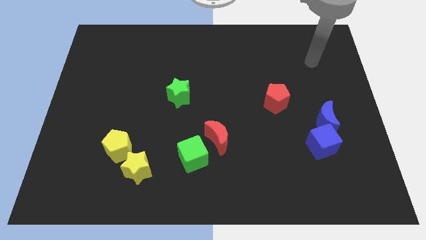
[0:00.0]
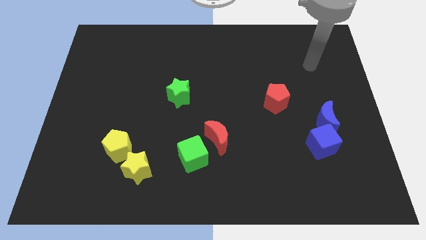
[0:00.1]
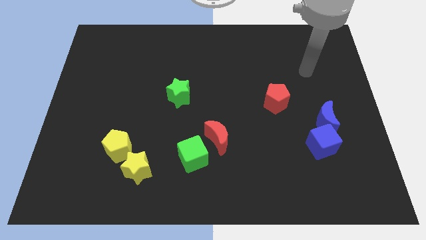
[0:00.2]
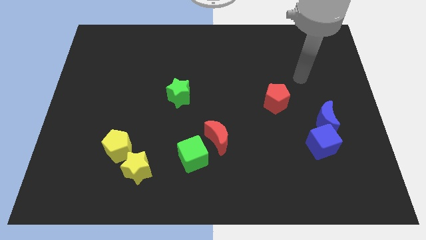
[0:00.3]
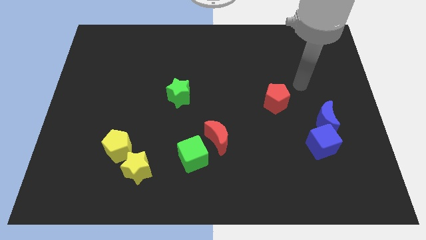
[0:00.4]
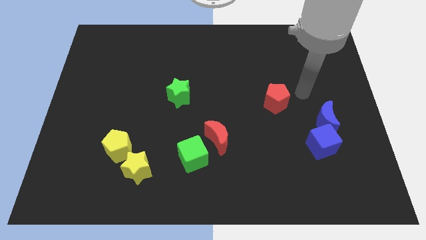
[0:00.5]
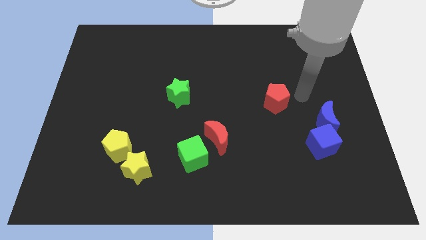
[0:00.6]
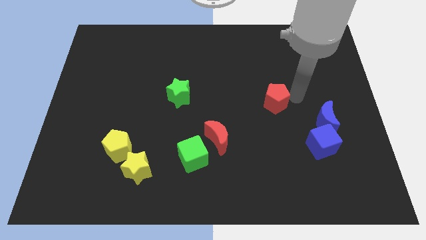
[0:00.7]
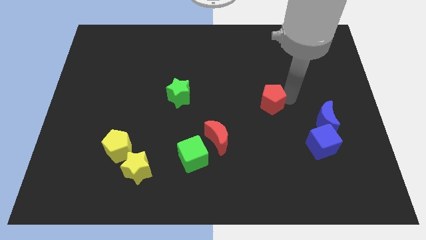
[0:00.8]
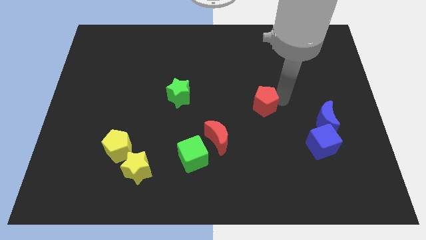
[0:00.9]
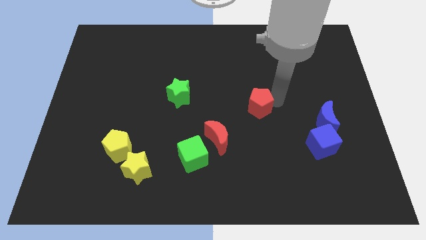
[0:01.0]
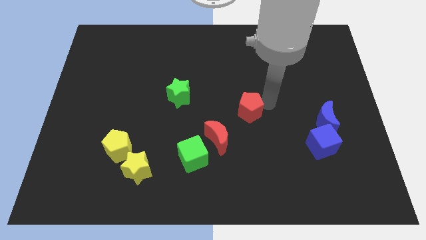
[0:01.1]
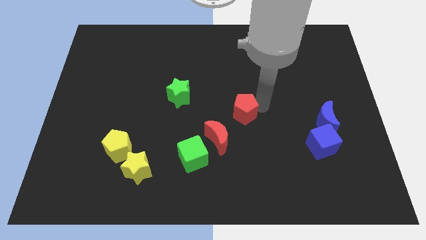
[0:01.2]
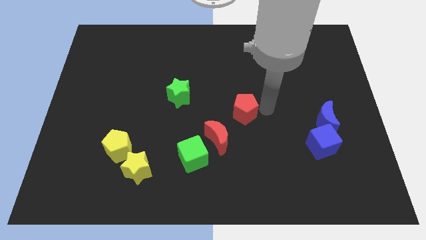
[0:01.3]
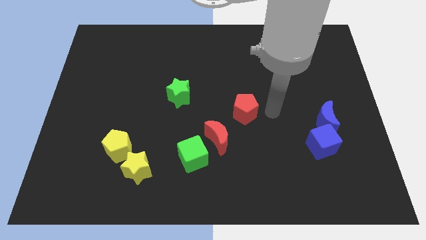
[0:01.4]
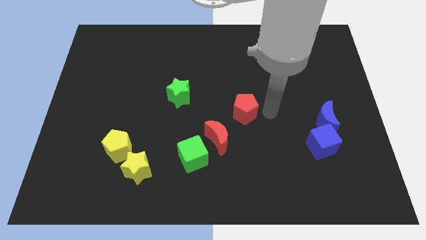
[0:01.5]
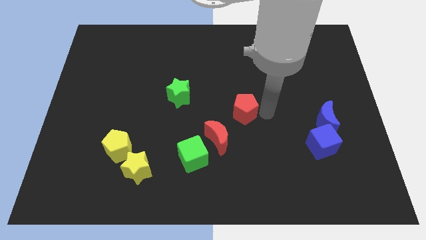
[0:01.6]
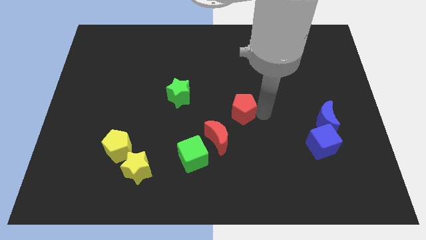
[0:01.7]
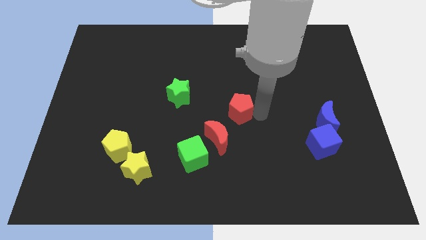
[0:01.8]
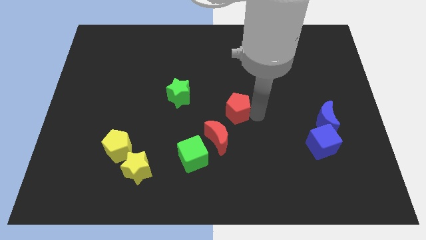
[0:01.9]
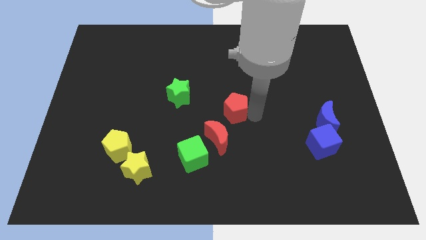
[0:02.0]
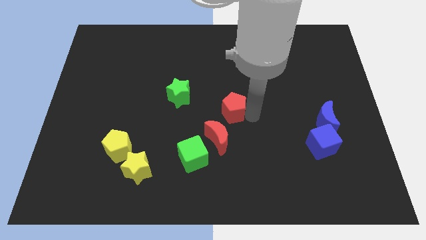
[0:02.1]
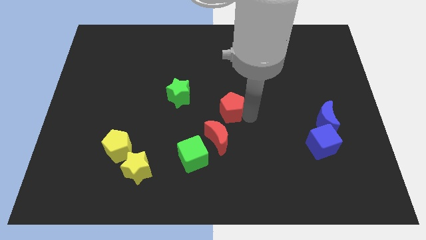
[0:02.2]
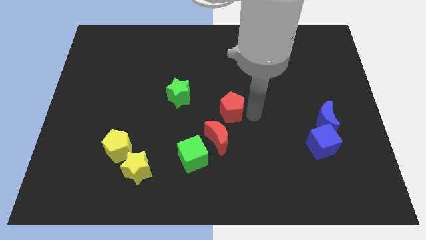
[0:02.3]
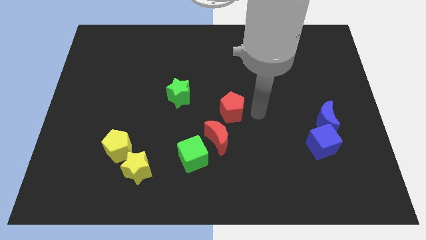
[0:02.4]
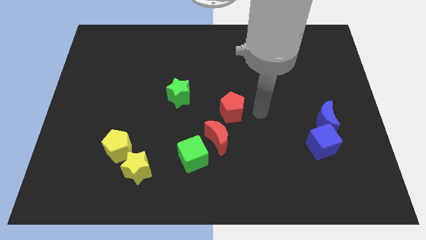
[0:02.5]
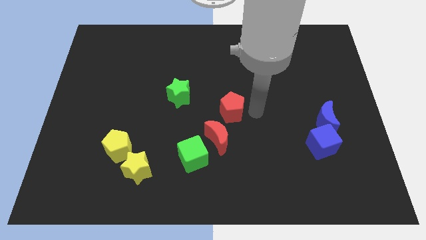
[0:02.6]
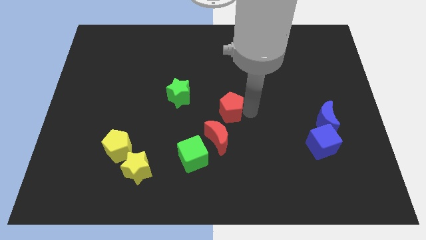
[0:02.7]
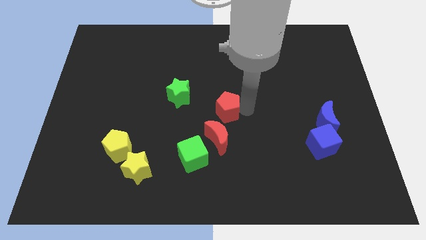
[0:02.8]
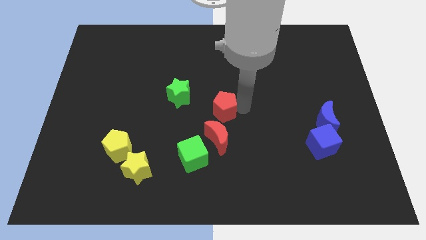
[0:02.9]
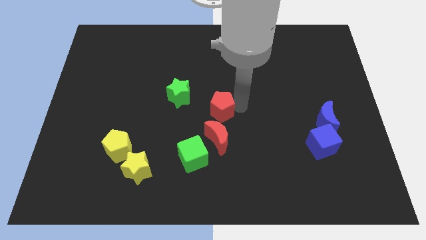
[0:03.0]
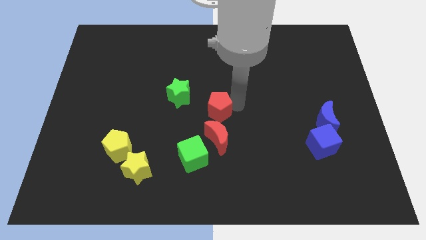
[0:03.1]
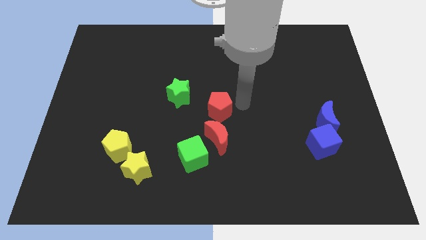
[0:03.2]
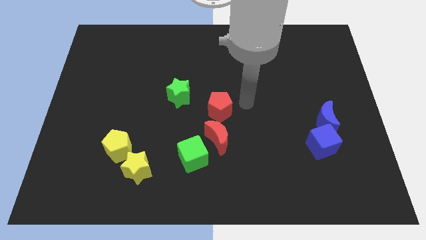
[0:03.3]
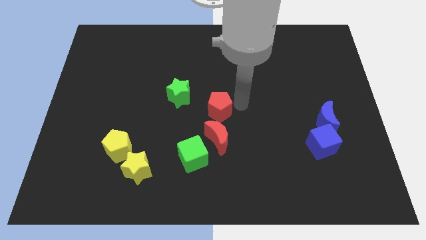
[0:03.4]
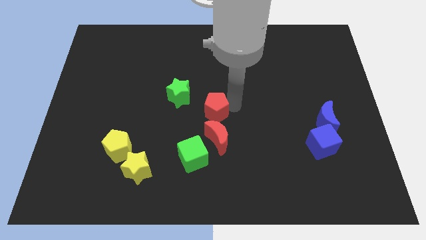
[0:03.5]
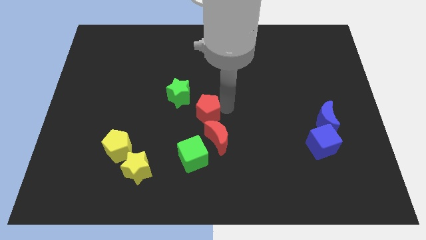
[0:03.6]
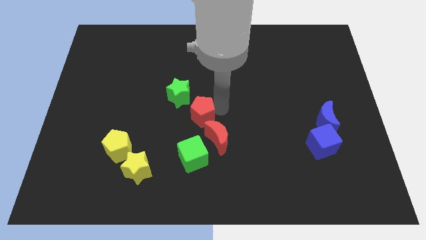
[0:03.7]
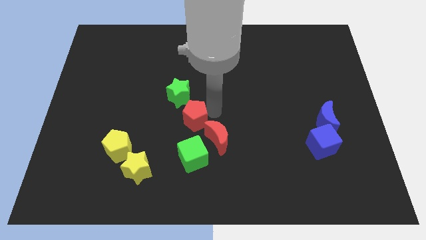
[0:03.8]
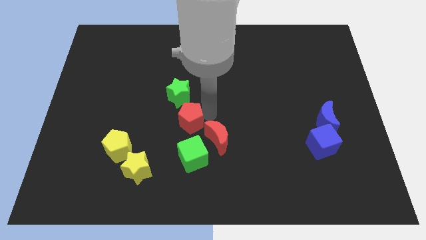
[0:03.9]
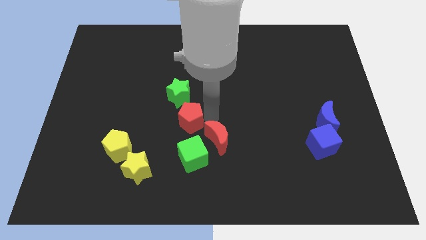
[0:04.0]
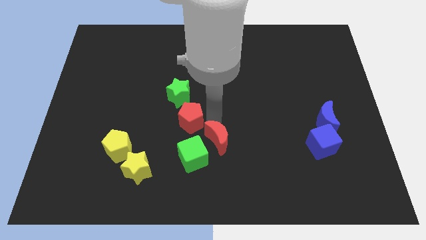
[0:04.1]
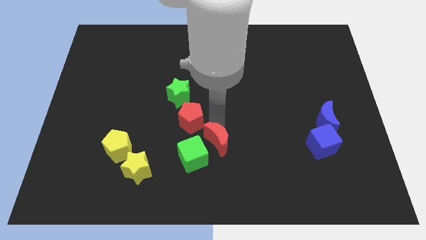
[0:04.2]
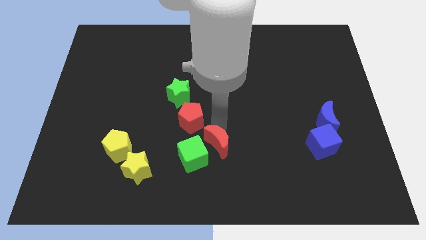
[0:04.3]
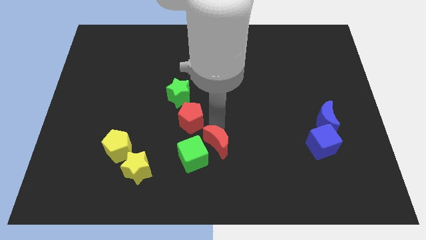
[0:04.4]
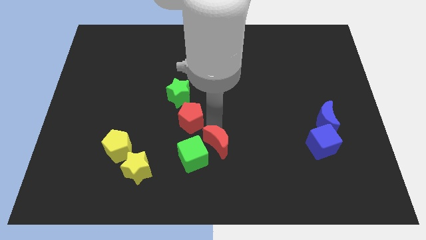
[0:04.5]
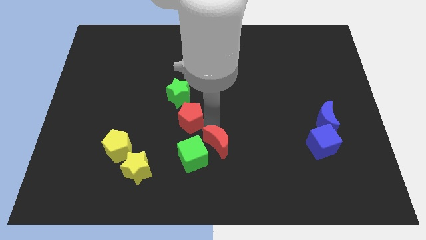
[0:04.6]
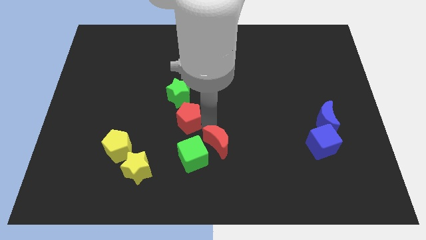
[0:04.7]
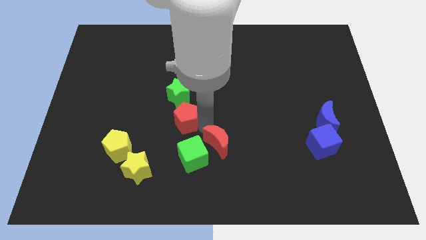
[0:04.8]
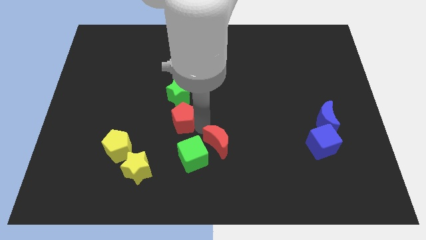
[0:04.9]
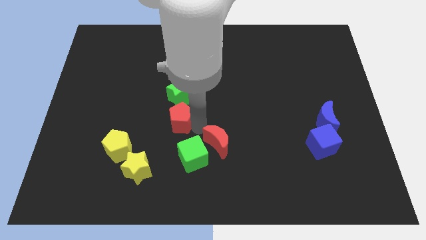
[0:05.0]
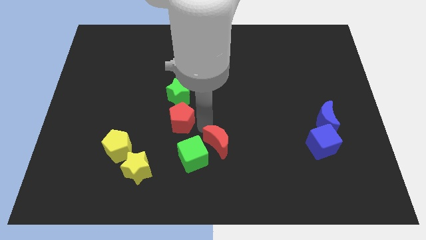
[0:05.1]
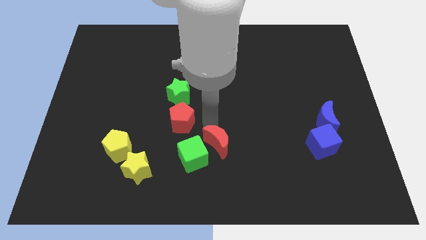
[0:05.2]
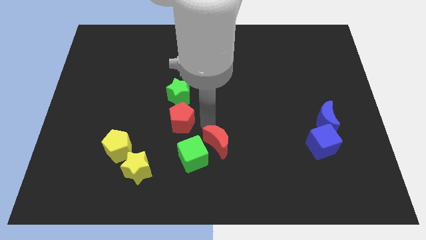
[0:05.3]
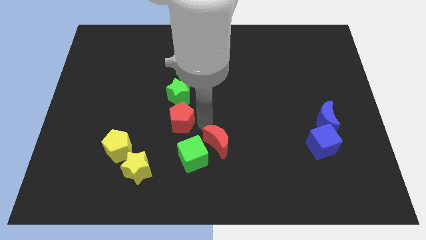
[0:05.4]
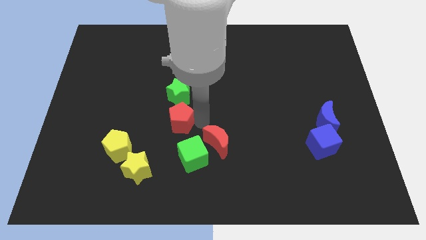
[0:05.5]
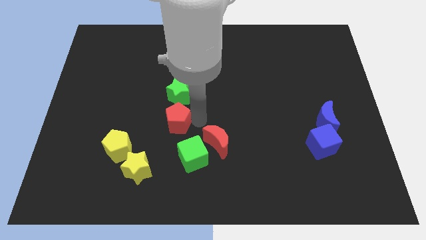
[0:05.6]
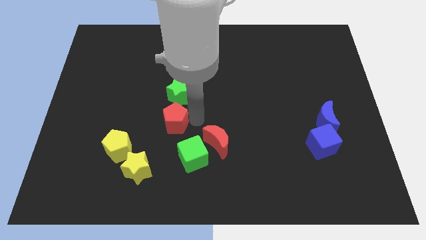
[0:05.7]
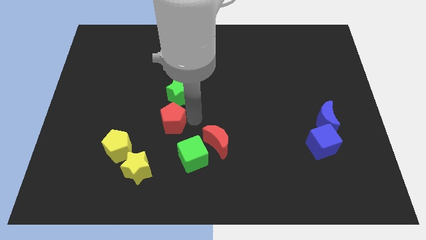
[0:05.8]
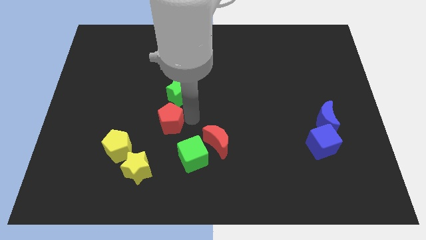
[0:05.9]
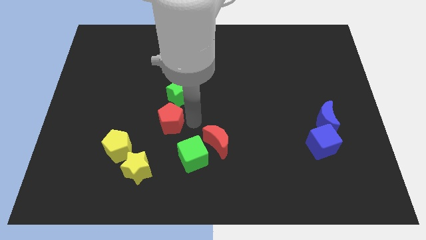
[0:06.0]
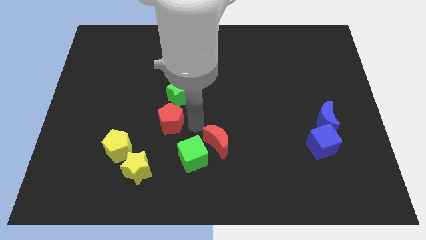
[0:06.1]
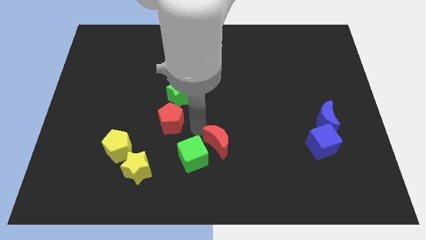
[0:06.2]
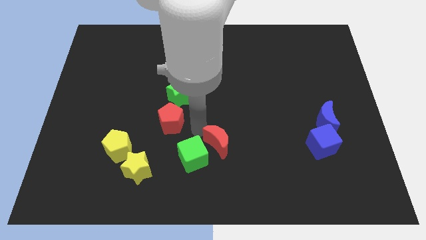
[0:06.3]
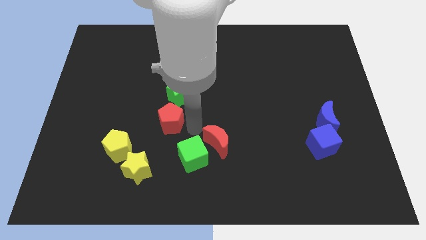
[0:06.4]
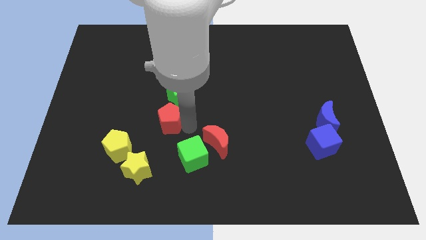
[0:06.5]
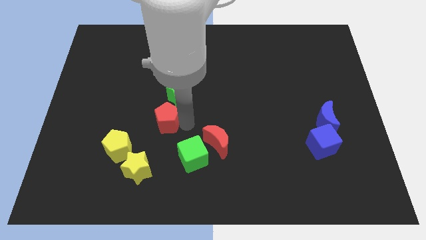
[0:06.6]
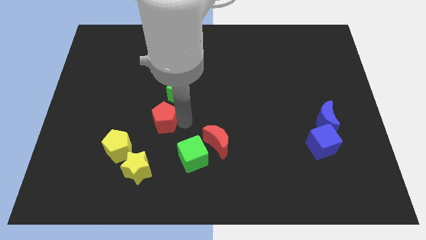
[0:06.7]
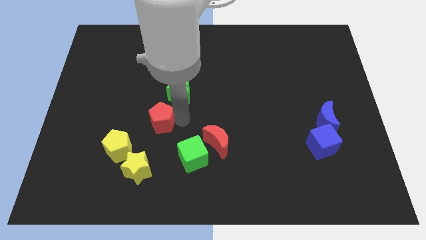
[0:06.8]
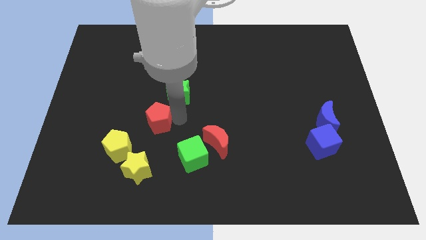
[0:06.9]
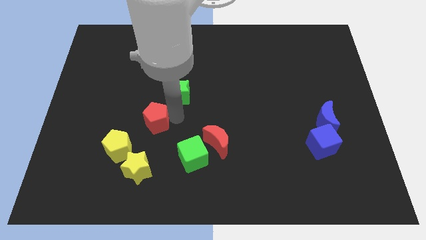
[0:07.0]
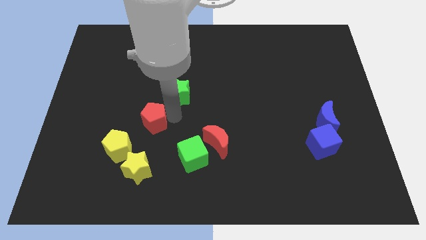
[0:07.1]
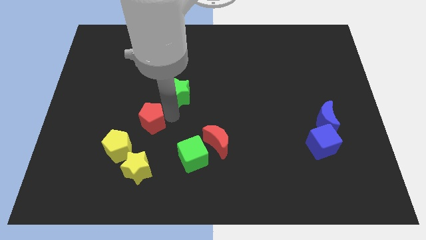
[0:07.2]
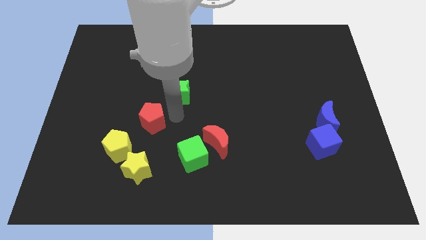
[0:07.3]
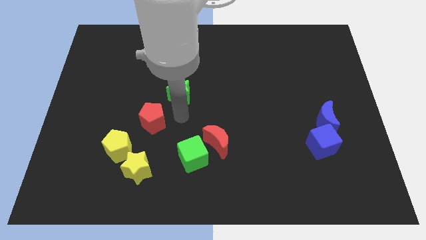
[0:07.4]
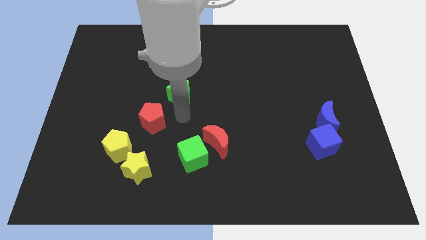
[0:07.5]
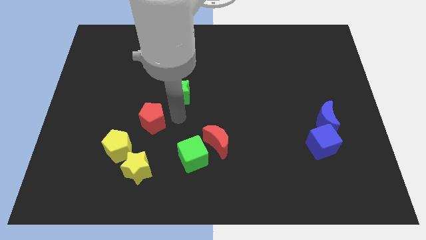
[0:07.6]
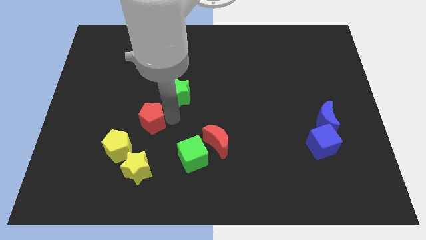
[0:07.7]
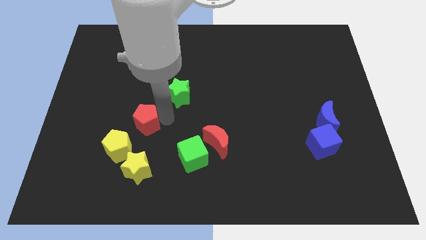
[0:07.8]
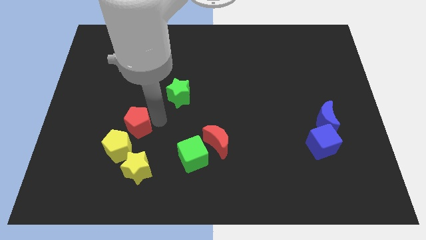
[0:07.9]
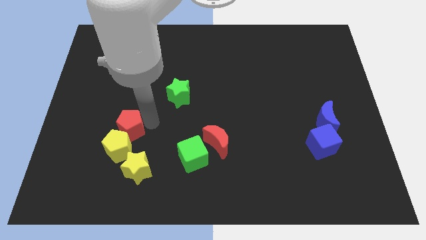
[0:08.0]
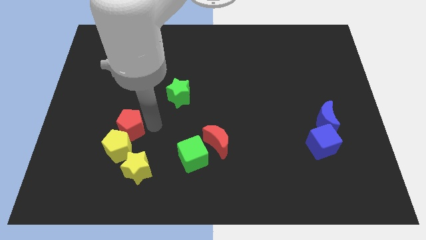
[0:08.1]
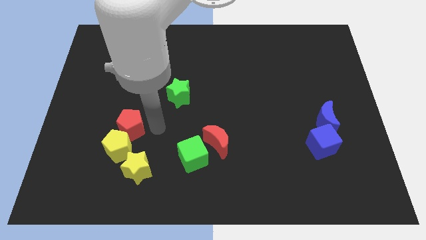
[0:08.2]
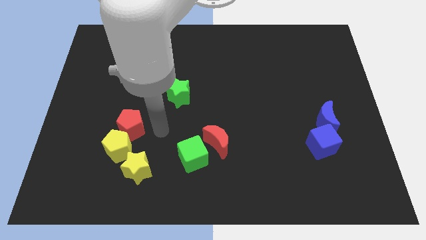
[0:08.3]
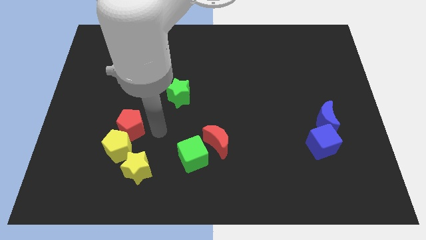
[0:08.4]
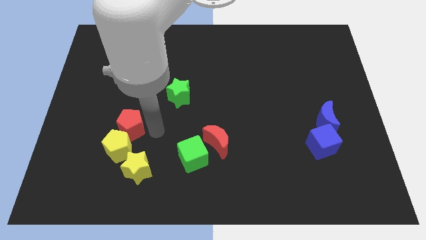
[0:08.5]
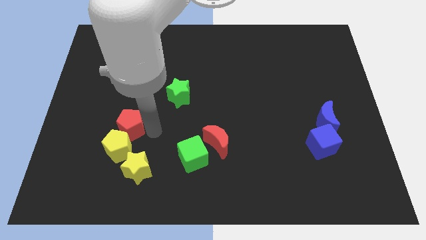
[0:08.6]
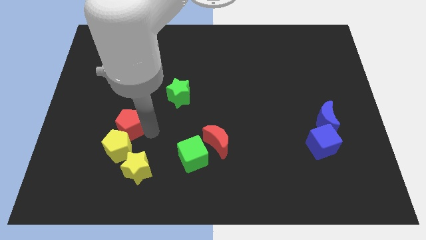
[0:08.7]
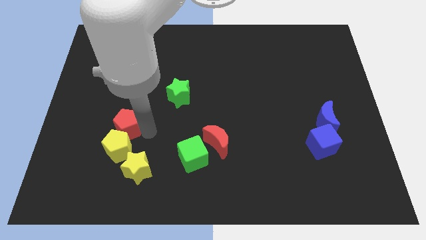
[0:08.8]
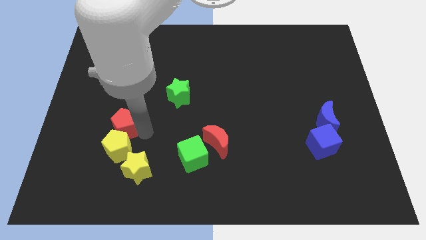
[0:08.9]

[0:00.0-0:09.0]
push the red pentagon diagonally up and to the left of the yellow pentagon
